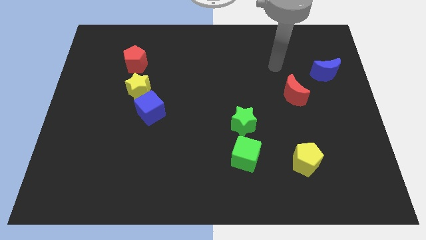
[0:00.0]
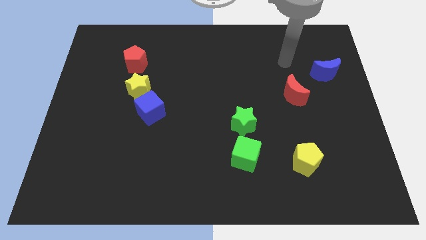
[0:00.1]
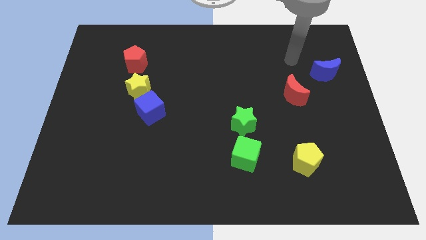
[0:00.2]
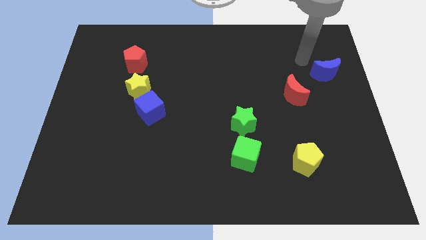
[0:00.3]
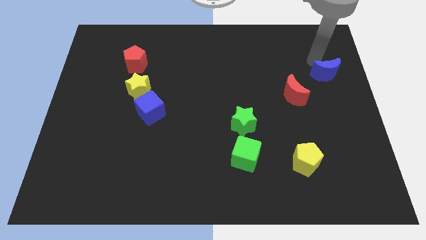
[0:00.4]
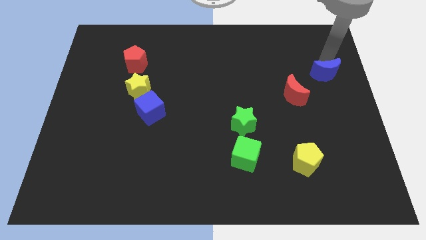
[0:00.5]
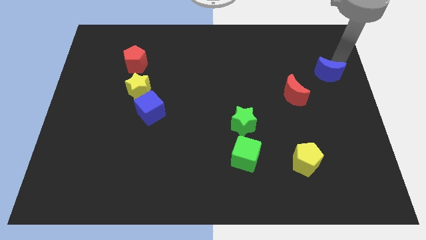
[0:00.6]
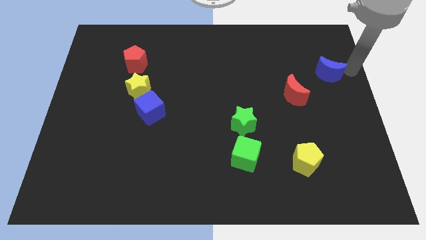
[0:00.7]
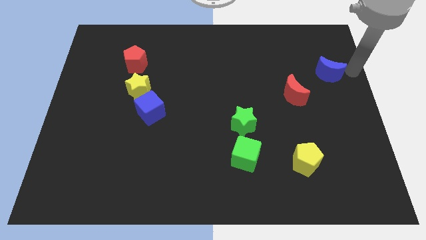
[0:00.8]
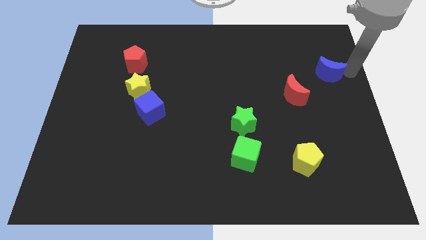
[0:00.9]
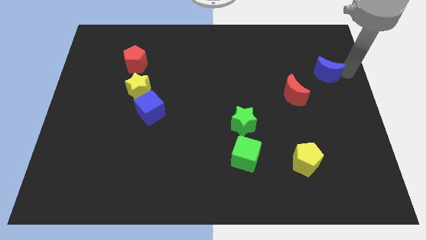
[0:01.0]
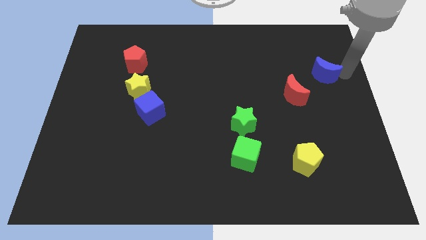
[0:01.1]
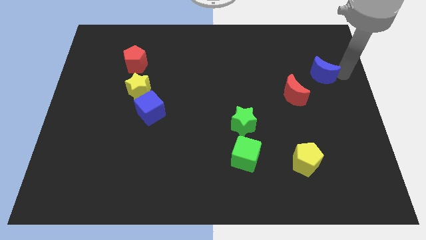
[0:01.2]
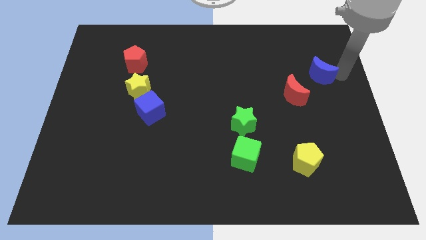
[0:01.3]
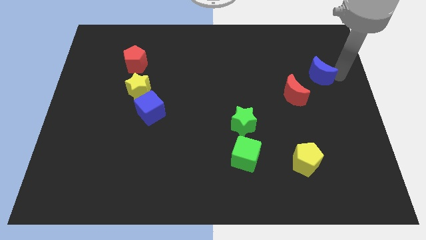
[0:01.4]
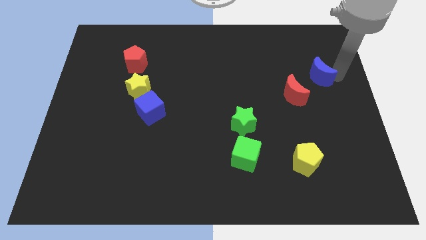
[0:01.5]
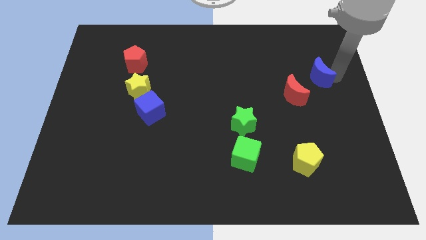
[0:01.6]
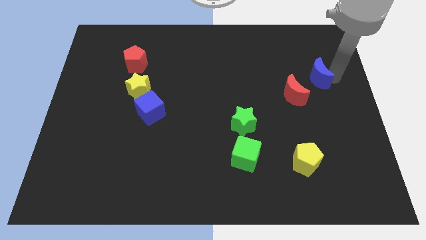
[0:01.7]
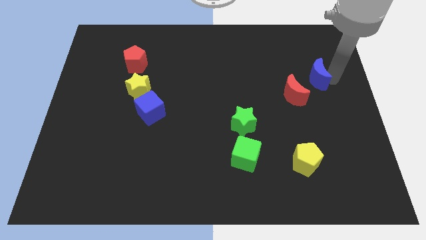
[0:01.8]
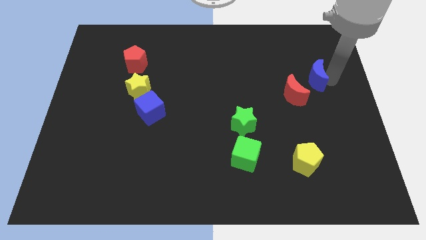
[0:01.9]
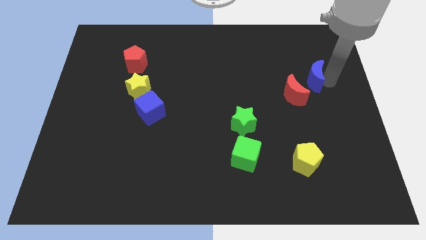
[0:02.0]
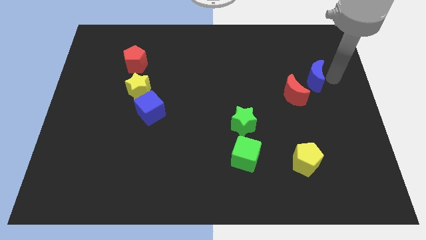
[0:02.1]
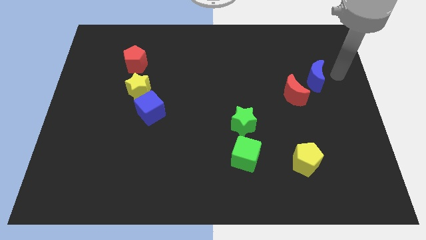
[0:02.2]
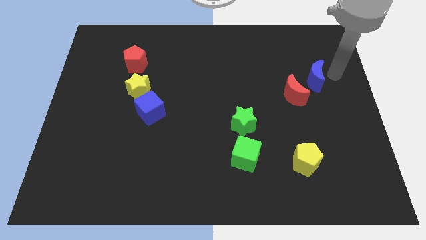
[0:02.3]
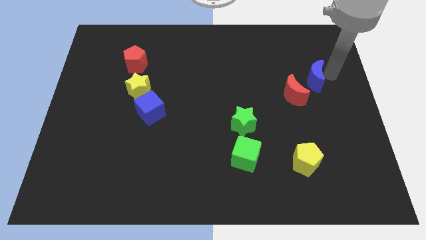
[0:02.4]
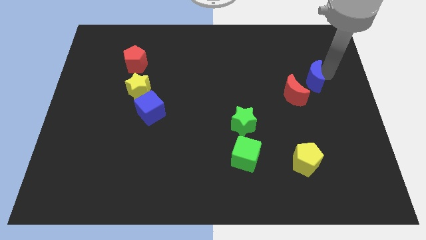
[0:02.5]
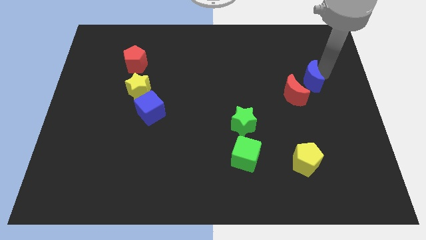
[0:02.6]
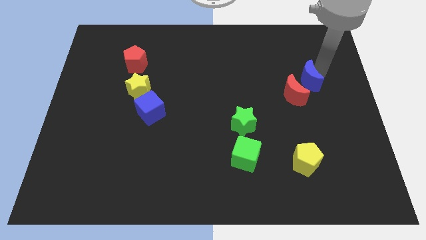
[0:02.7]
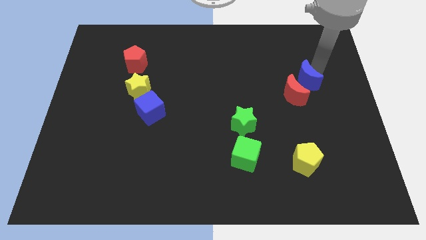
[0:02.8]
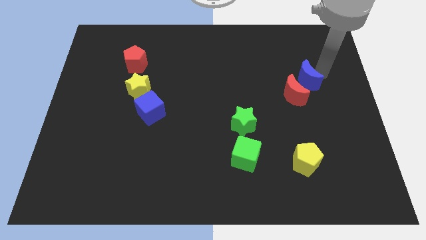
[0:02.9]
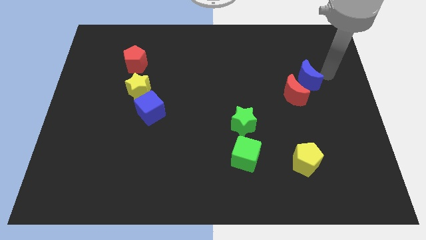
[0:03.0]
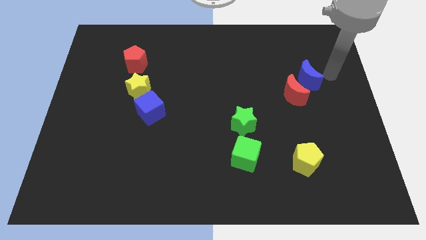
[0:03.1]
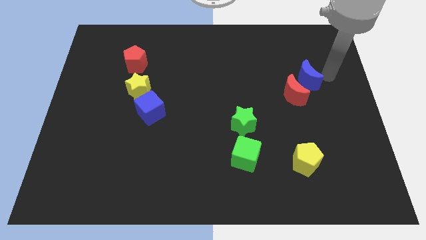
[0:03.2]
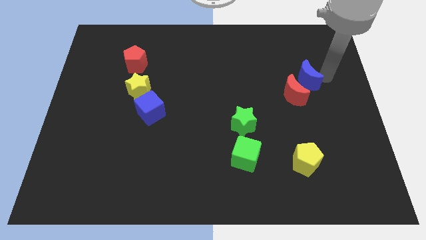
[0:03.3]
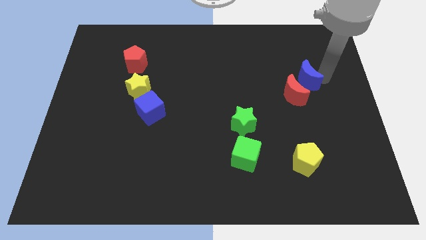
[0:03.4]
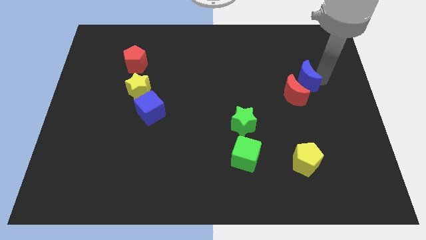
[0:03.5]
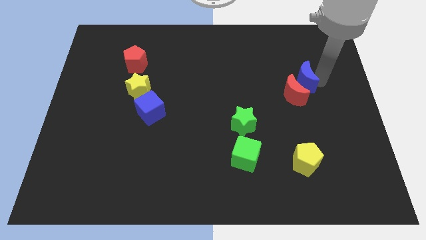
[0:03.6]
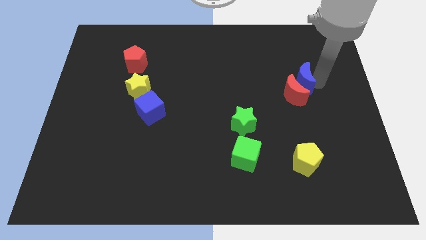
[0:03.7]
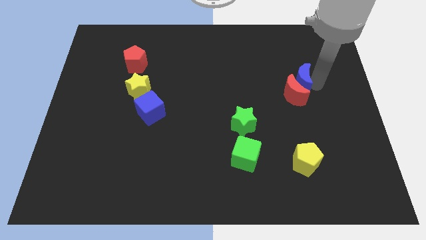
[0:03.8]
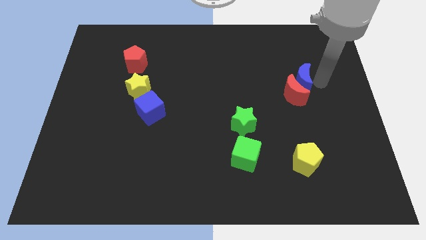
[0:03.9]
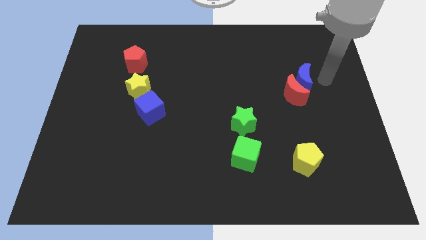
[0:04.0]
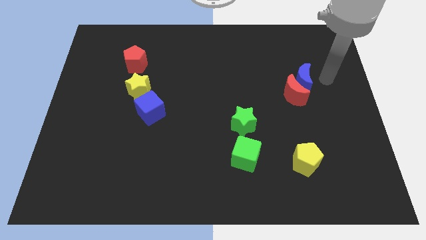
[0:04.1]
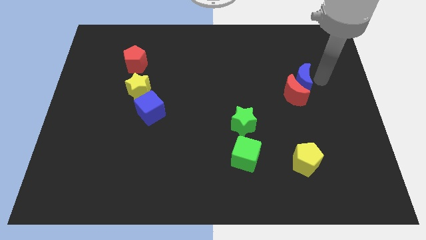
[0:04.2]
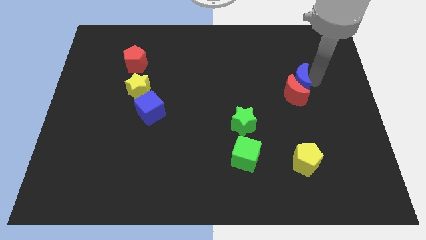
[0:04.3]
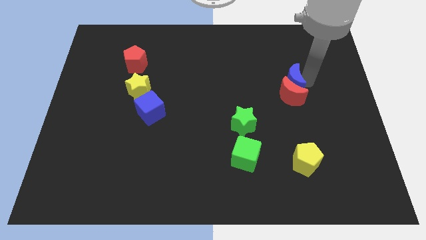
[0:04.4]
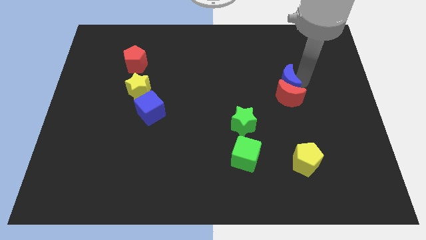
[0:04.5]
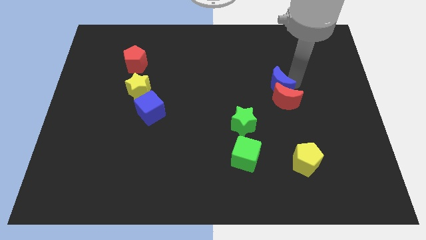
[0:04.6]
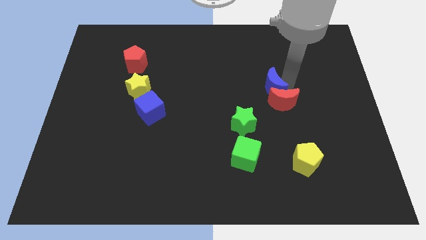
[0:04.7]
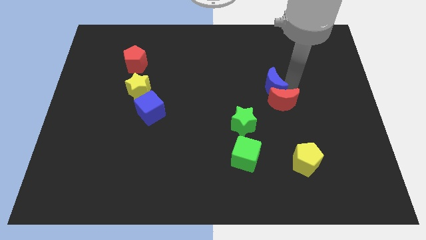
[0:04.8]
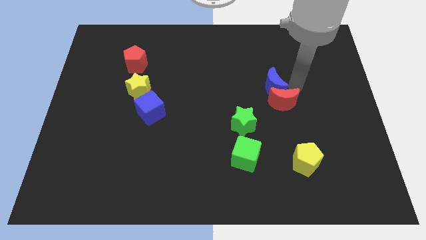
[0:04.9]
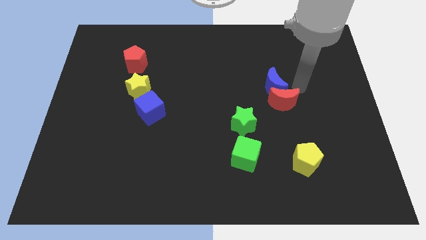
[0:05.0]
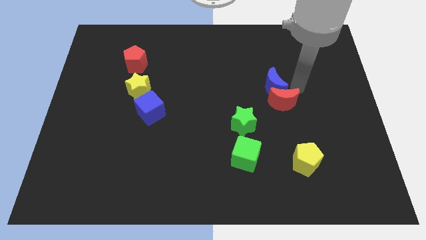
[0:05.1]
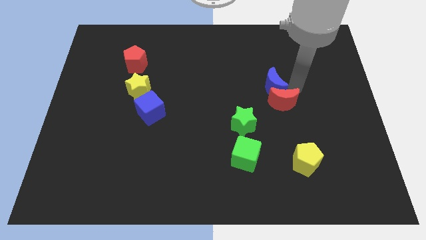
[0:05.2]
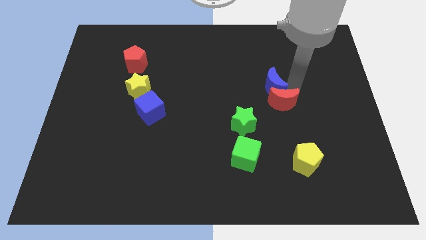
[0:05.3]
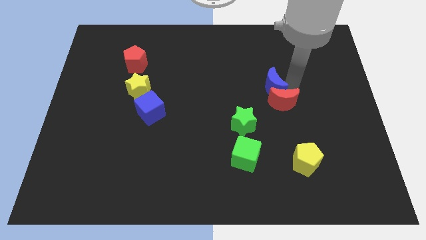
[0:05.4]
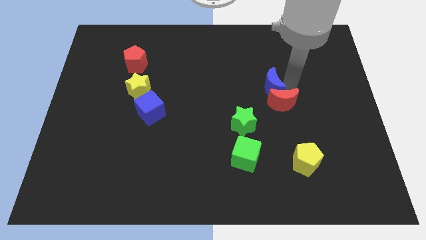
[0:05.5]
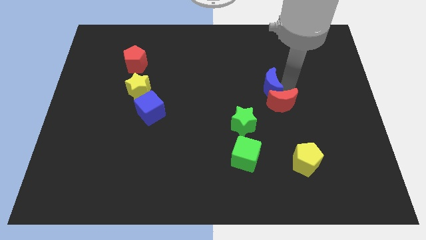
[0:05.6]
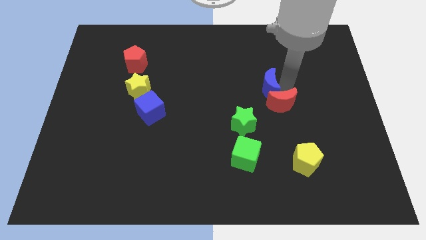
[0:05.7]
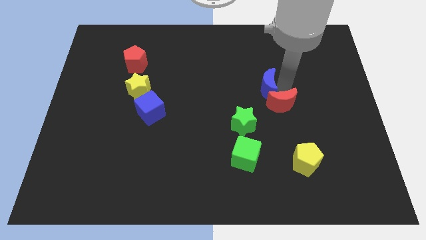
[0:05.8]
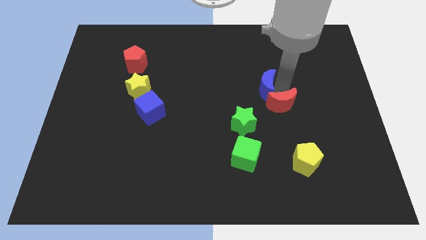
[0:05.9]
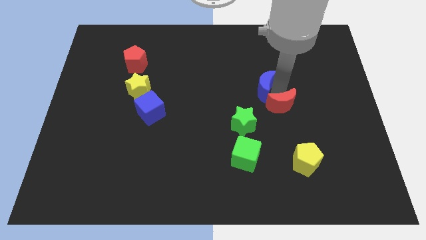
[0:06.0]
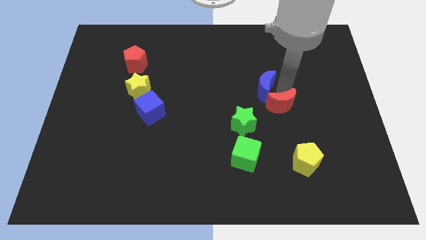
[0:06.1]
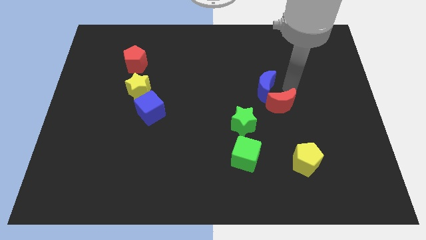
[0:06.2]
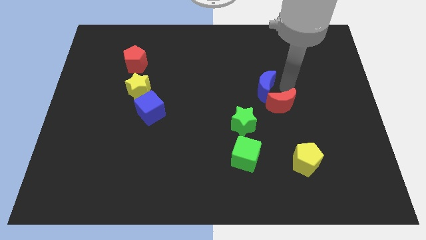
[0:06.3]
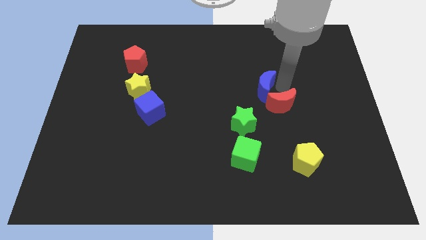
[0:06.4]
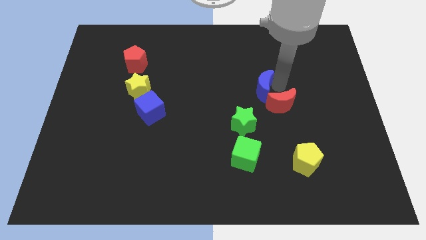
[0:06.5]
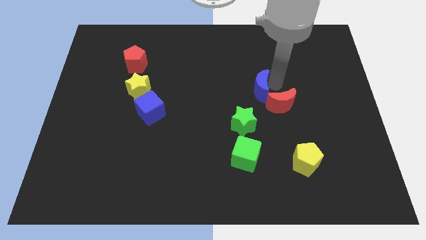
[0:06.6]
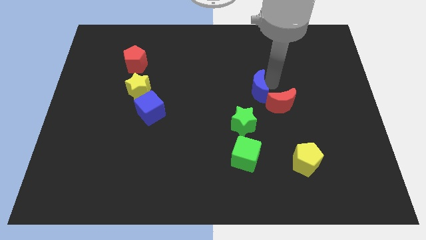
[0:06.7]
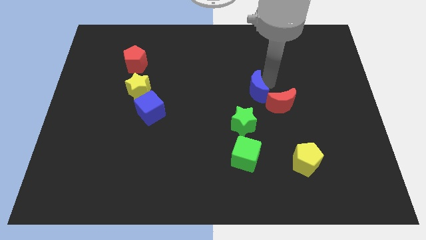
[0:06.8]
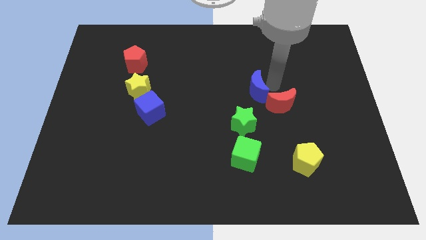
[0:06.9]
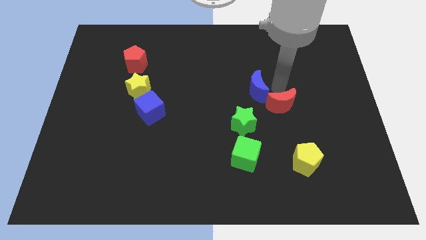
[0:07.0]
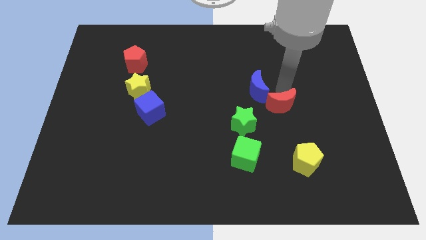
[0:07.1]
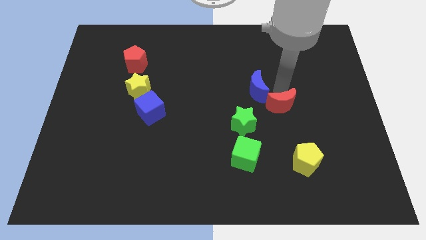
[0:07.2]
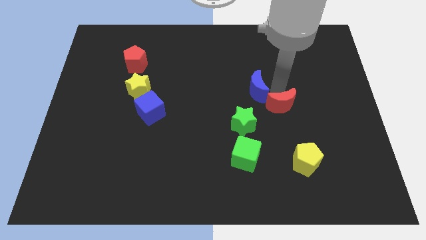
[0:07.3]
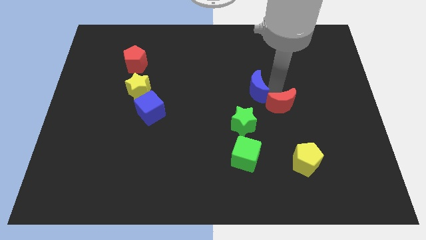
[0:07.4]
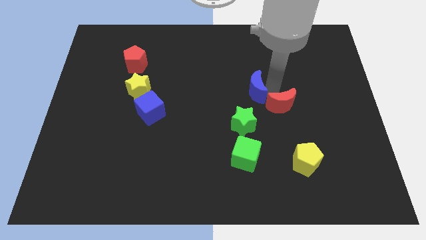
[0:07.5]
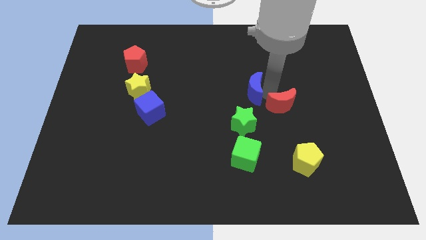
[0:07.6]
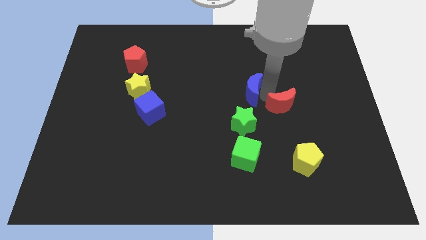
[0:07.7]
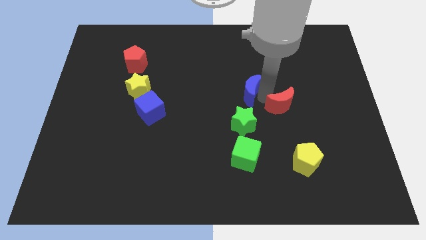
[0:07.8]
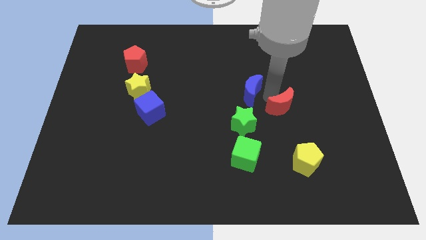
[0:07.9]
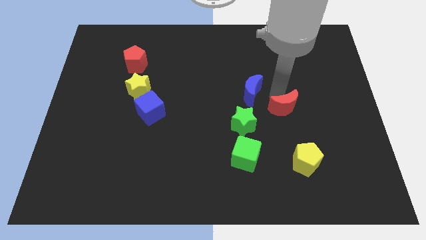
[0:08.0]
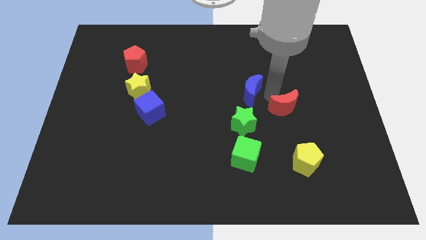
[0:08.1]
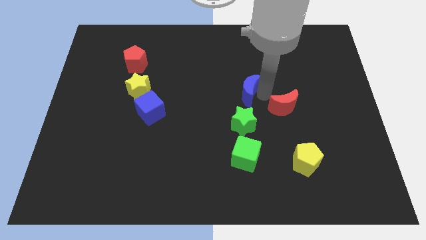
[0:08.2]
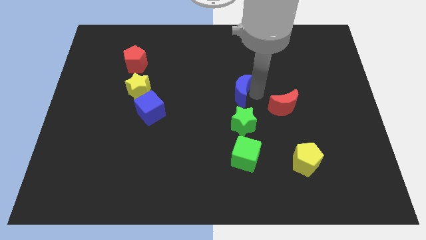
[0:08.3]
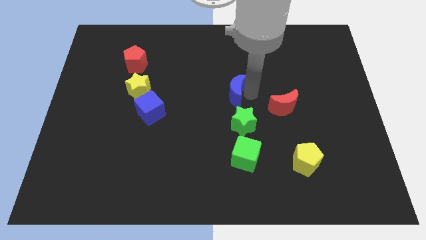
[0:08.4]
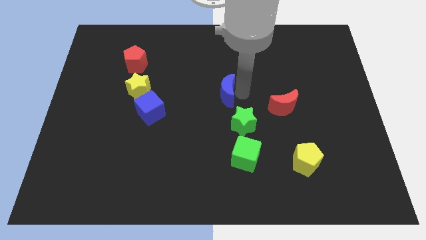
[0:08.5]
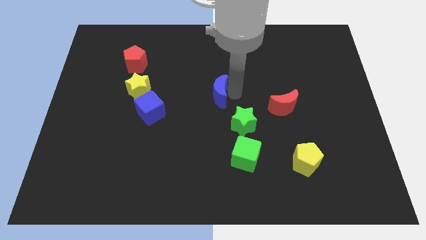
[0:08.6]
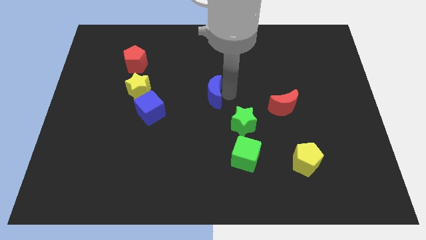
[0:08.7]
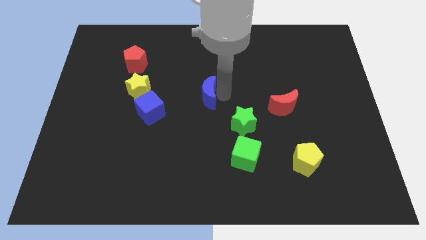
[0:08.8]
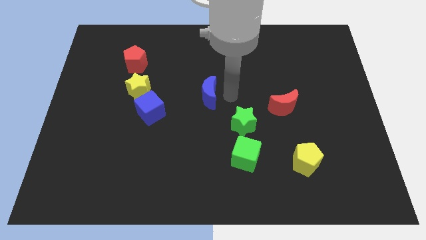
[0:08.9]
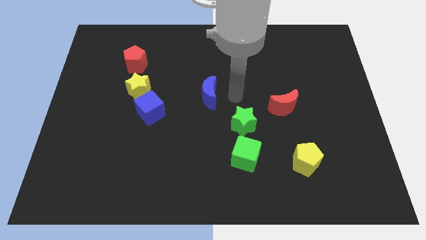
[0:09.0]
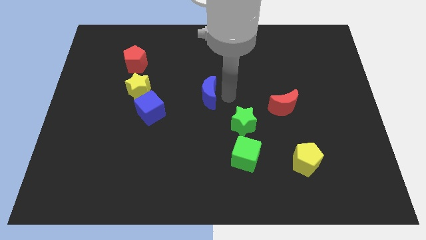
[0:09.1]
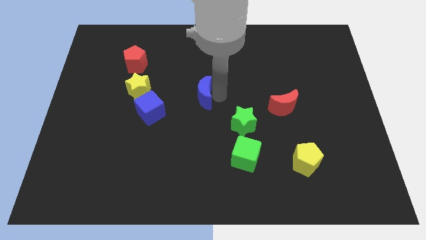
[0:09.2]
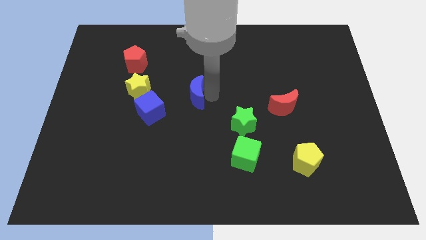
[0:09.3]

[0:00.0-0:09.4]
put the blue moon to the top right of the blue cube
